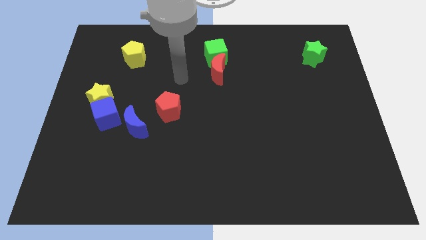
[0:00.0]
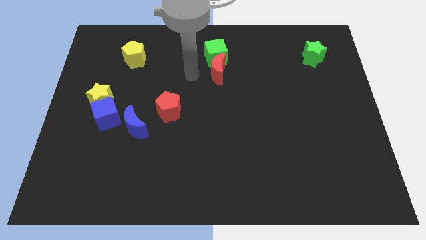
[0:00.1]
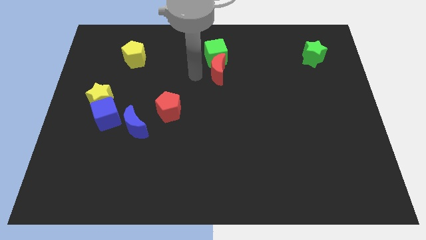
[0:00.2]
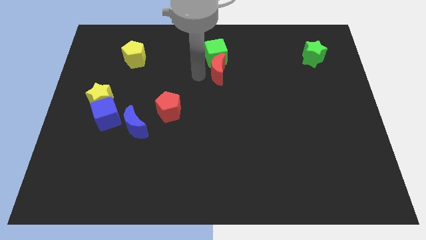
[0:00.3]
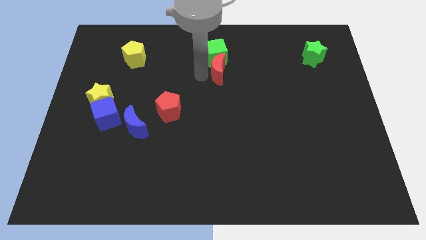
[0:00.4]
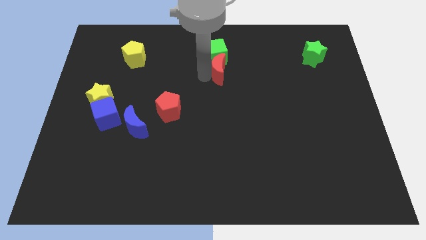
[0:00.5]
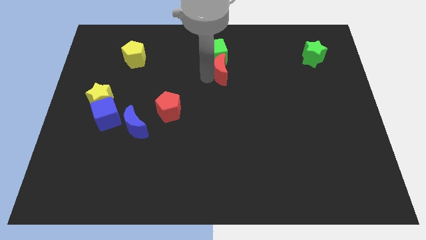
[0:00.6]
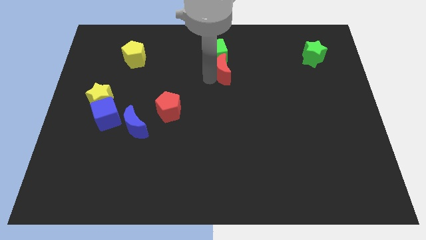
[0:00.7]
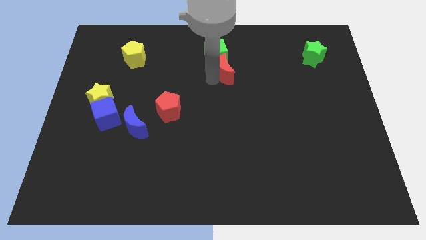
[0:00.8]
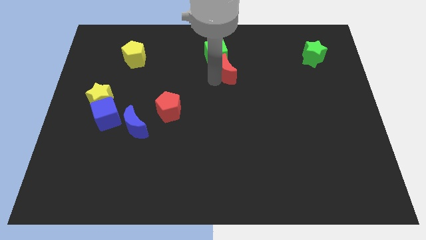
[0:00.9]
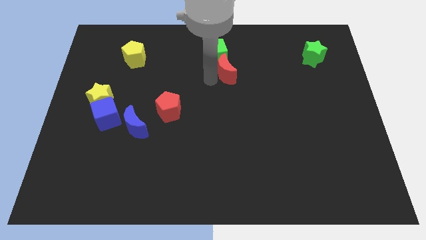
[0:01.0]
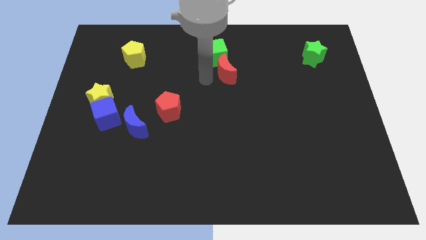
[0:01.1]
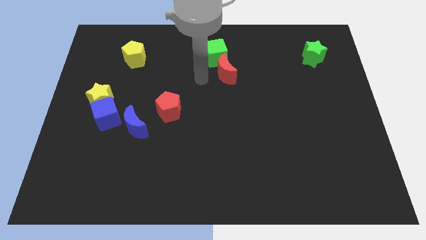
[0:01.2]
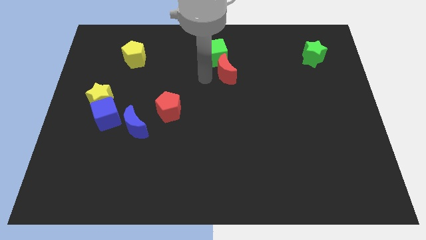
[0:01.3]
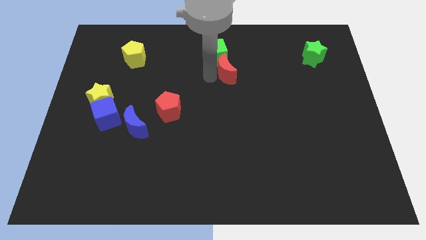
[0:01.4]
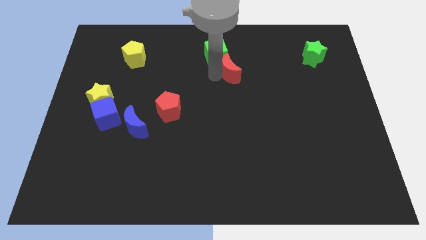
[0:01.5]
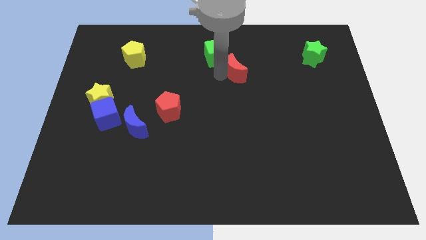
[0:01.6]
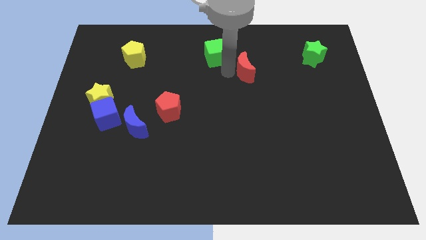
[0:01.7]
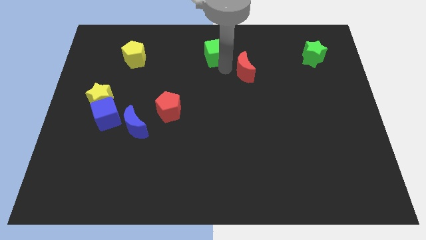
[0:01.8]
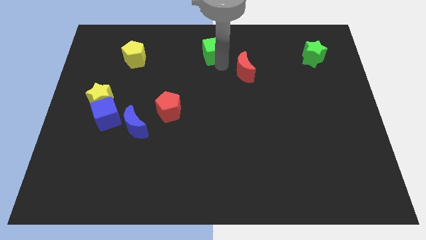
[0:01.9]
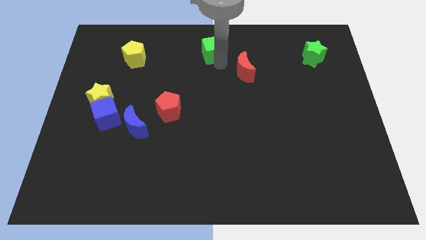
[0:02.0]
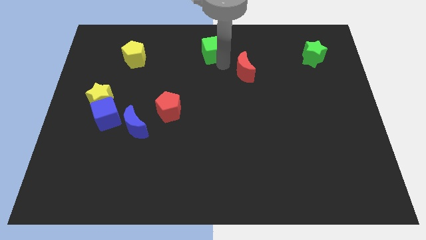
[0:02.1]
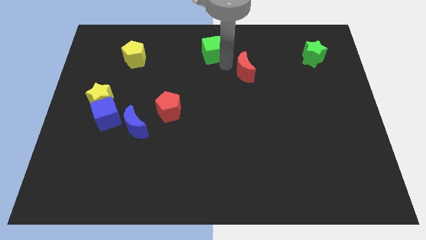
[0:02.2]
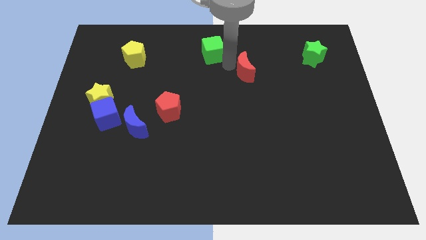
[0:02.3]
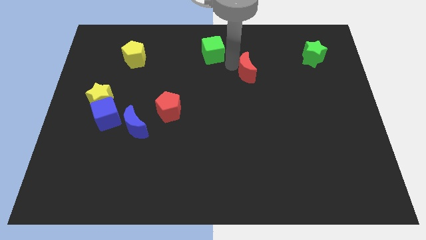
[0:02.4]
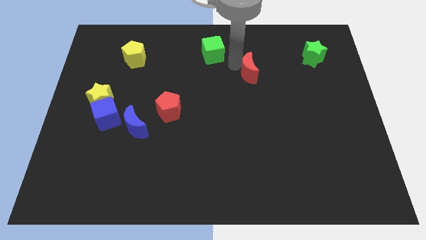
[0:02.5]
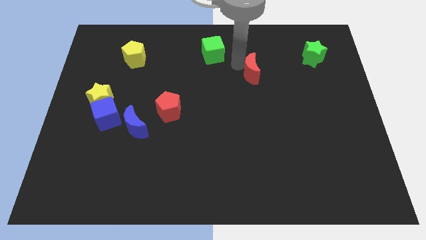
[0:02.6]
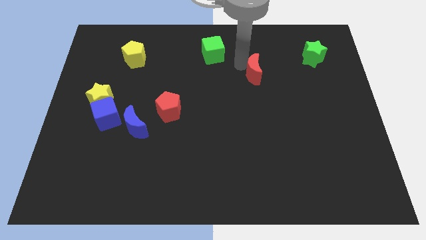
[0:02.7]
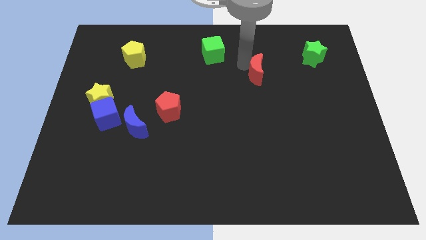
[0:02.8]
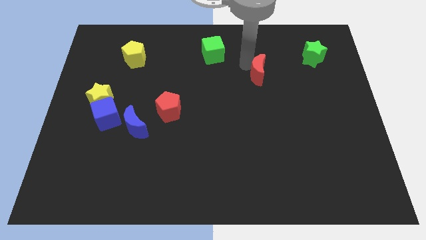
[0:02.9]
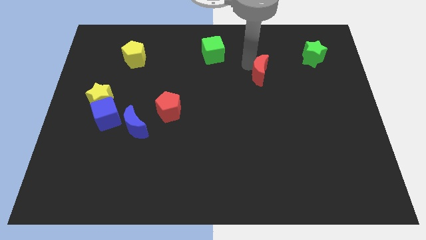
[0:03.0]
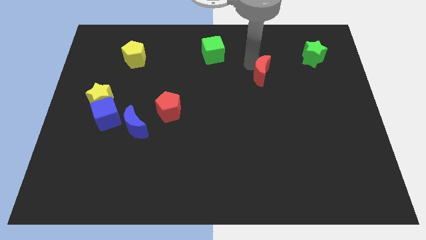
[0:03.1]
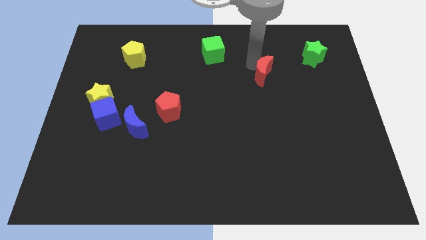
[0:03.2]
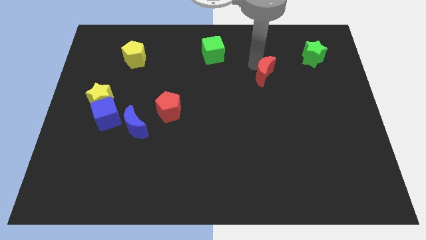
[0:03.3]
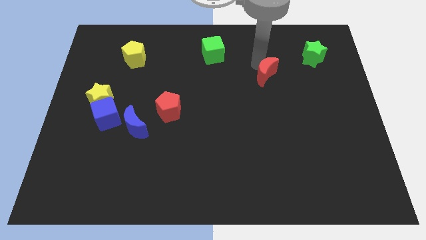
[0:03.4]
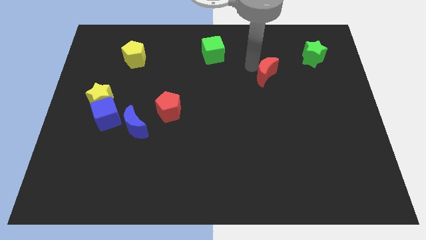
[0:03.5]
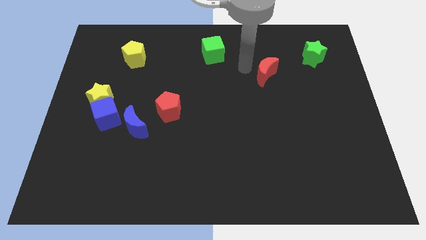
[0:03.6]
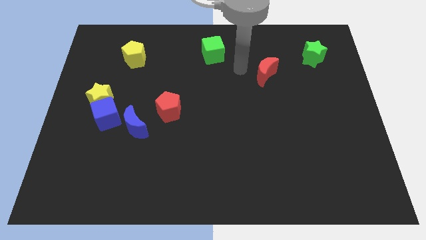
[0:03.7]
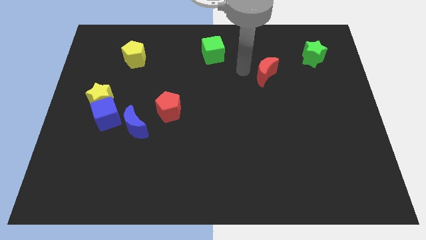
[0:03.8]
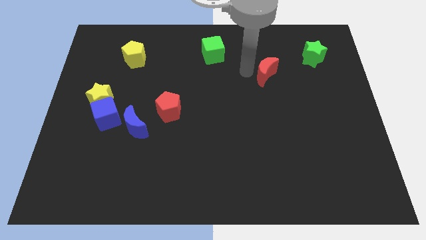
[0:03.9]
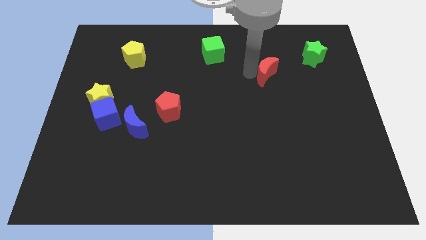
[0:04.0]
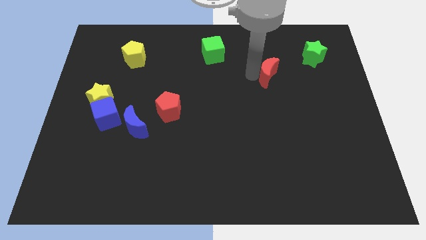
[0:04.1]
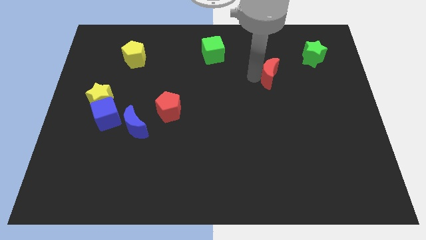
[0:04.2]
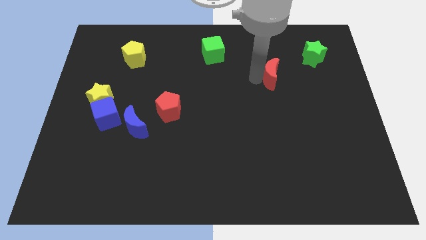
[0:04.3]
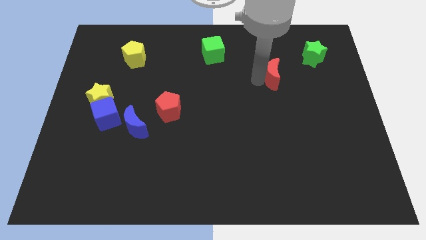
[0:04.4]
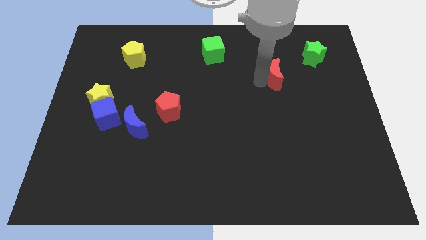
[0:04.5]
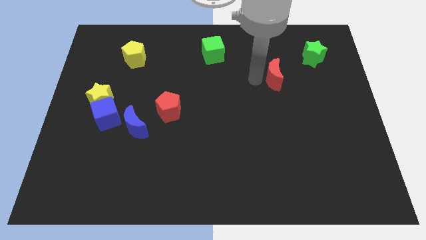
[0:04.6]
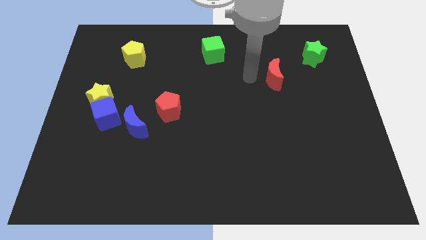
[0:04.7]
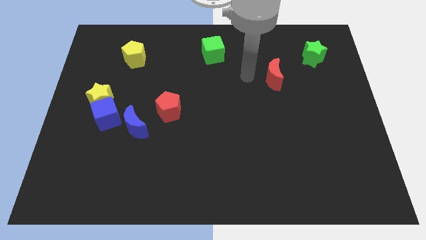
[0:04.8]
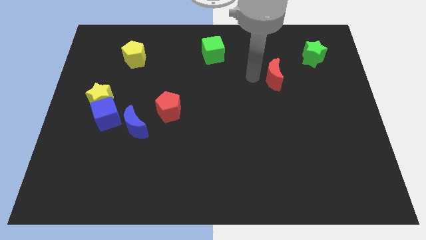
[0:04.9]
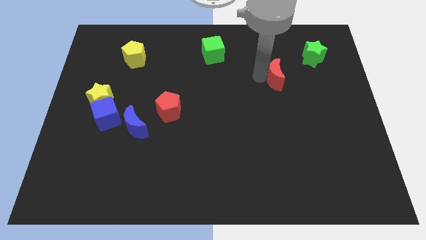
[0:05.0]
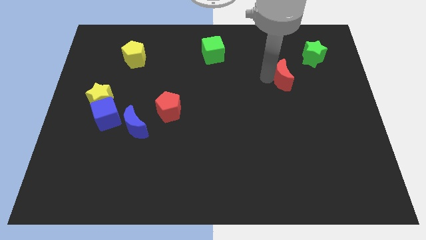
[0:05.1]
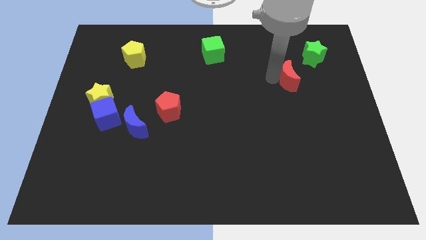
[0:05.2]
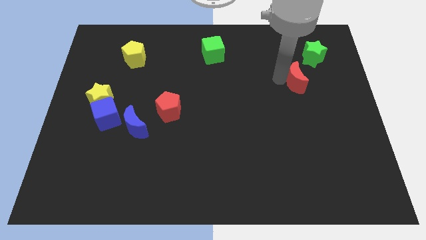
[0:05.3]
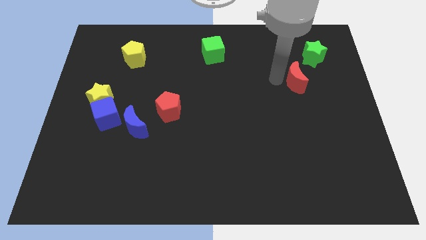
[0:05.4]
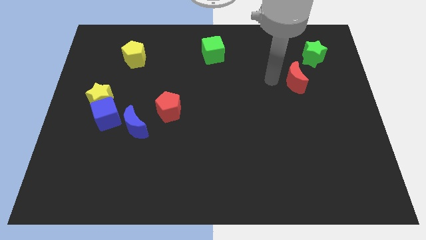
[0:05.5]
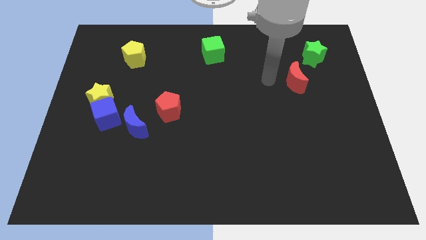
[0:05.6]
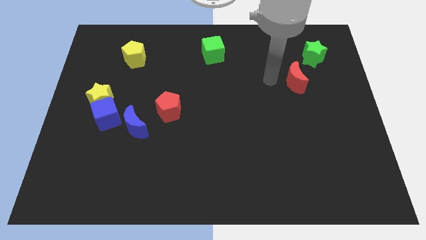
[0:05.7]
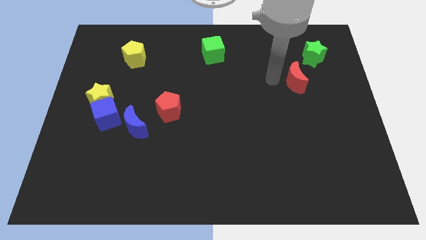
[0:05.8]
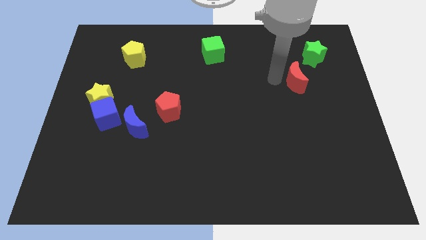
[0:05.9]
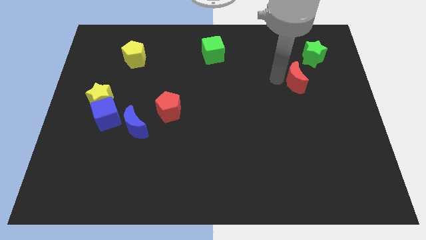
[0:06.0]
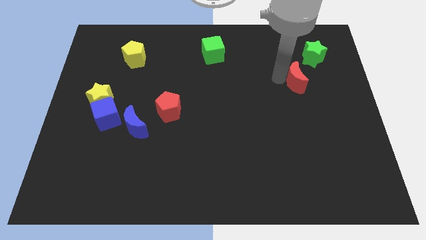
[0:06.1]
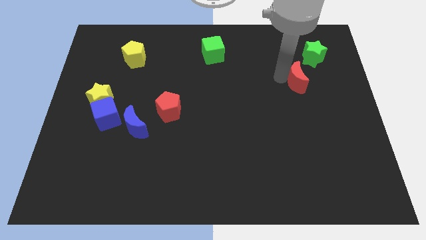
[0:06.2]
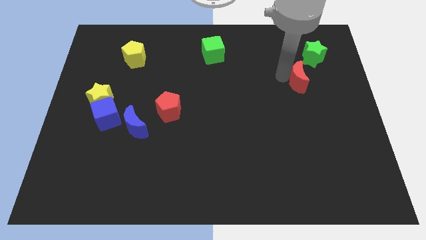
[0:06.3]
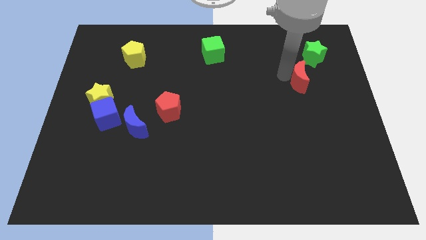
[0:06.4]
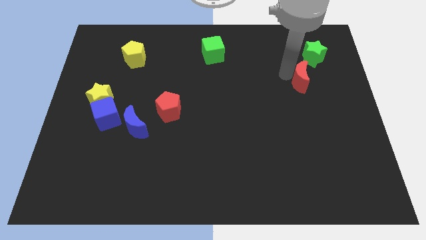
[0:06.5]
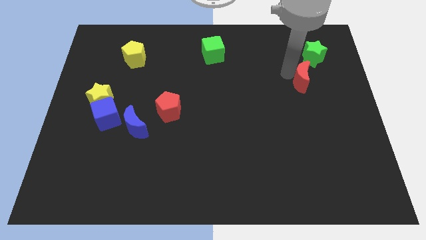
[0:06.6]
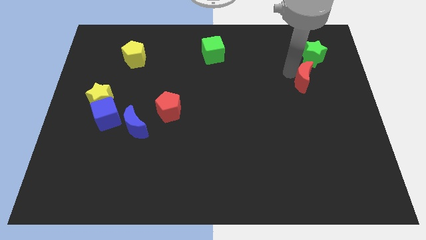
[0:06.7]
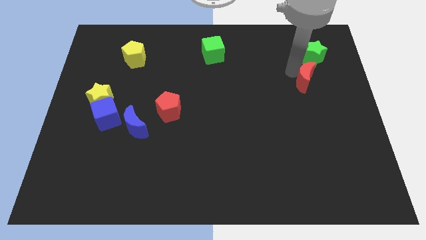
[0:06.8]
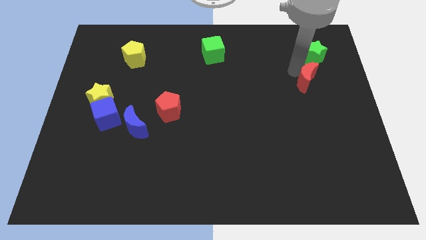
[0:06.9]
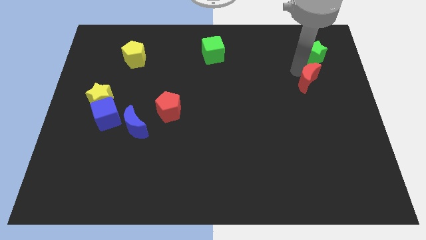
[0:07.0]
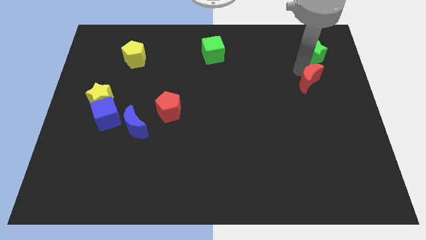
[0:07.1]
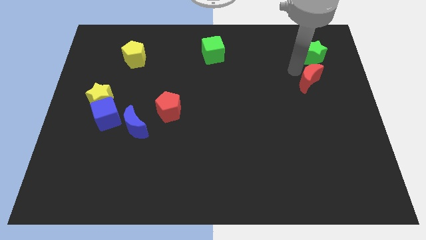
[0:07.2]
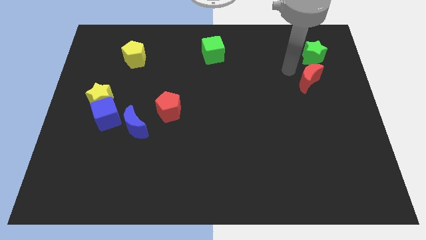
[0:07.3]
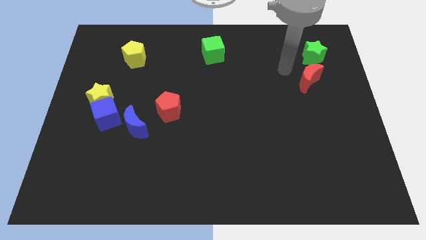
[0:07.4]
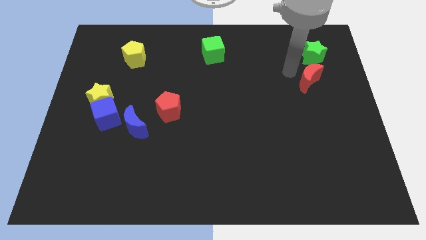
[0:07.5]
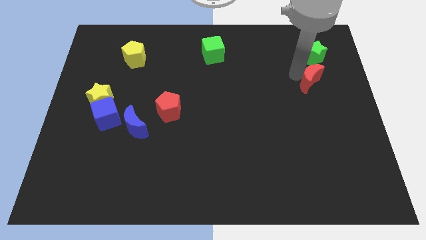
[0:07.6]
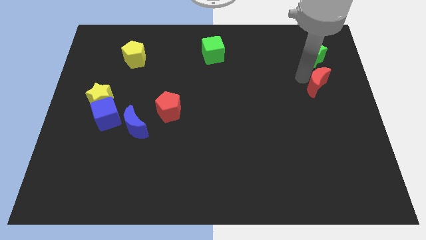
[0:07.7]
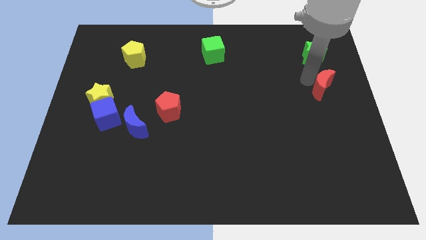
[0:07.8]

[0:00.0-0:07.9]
push the red moon to the center right
